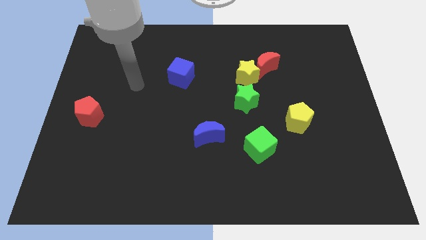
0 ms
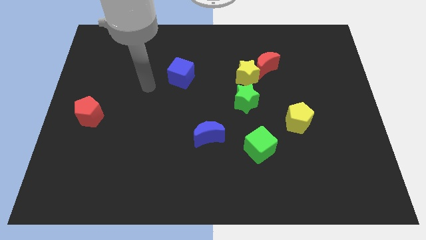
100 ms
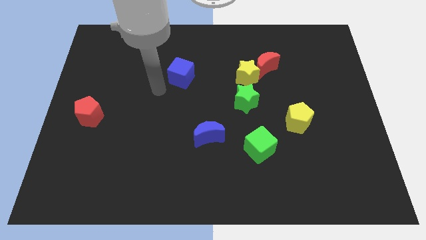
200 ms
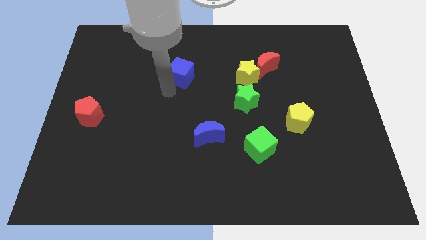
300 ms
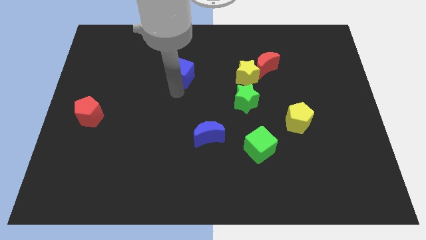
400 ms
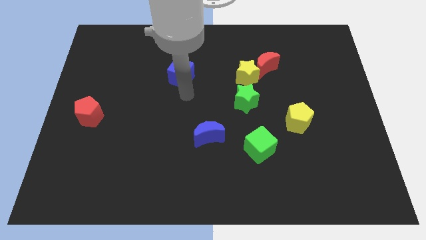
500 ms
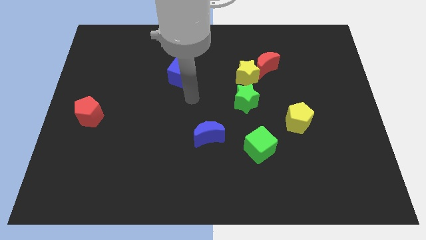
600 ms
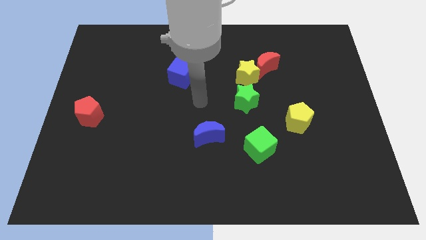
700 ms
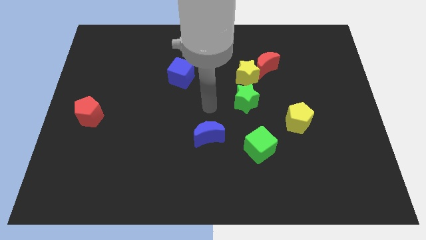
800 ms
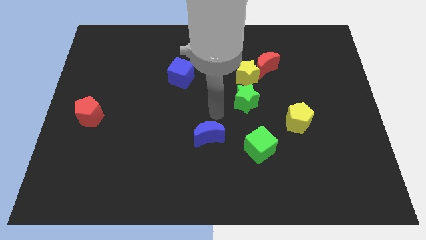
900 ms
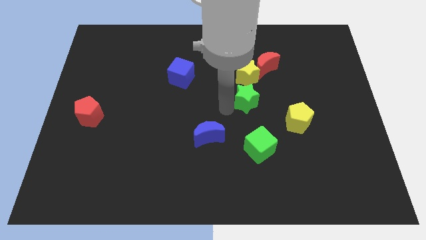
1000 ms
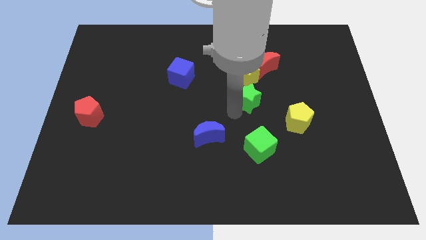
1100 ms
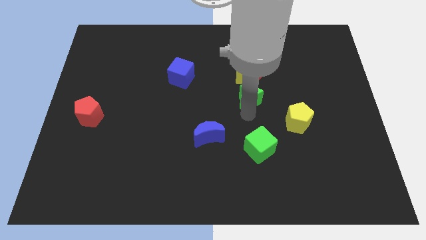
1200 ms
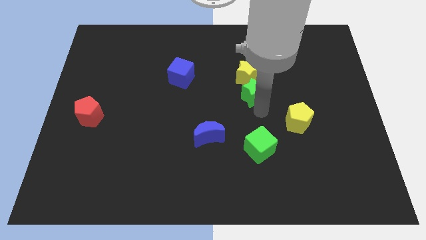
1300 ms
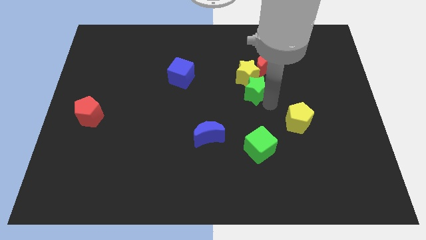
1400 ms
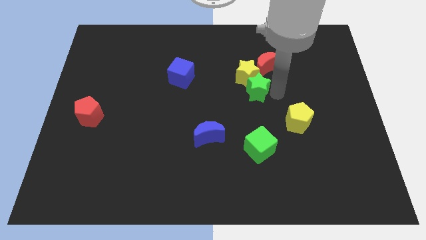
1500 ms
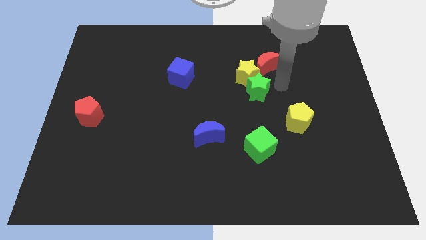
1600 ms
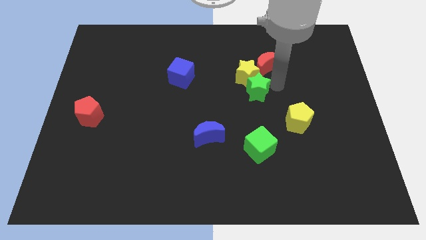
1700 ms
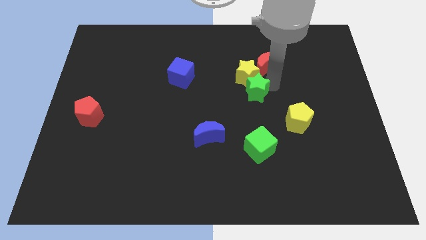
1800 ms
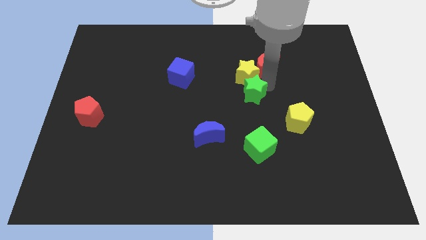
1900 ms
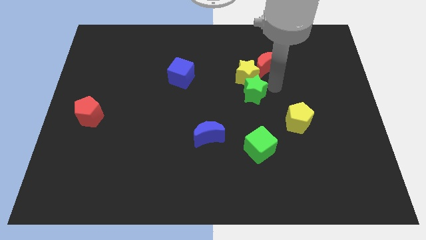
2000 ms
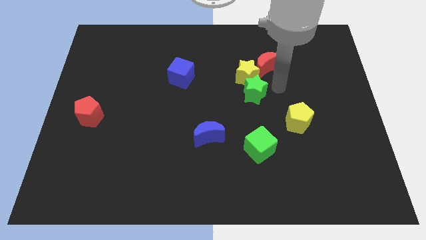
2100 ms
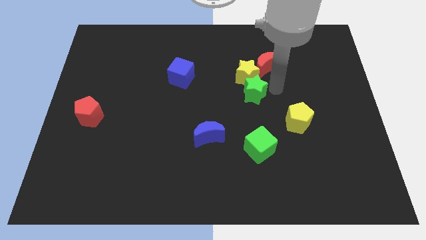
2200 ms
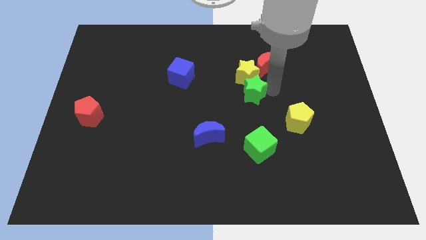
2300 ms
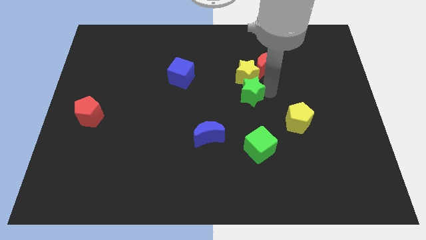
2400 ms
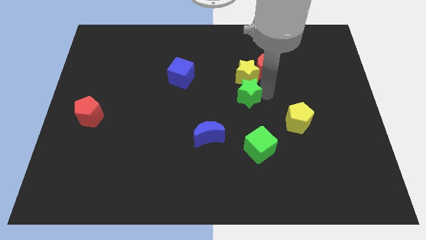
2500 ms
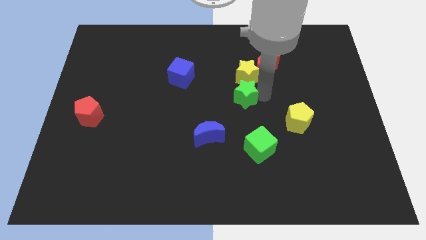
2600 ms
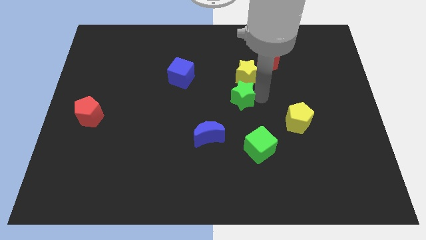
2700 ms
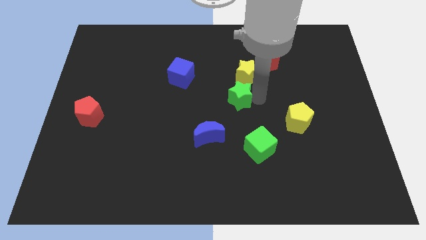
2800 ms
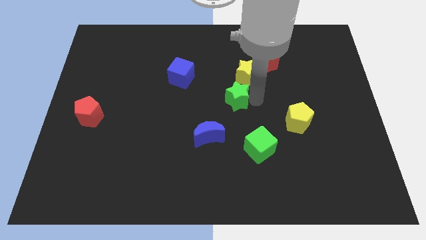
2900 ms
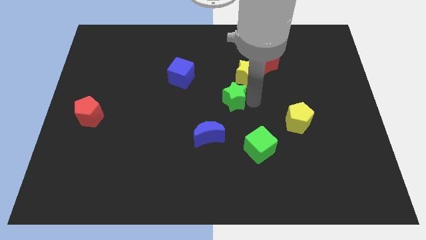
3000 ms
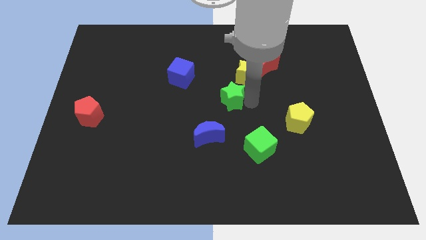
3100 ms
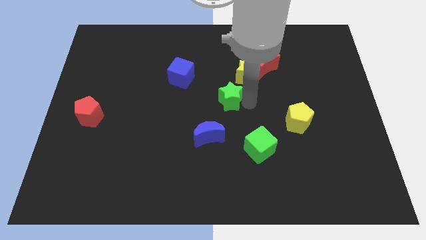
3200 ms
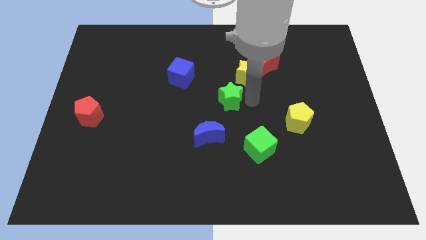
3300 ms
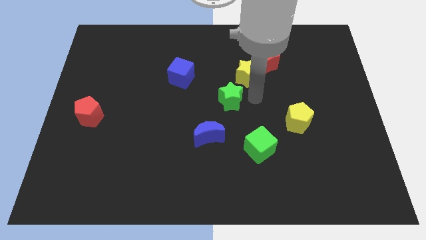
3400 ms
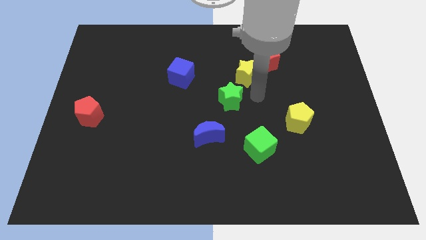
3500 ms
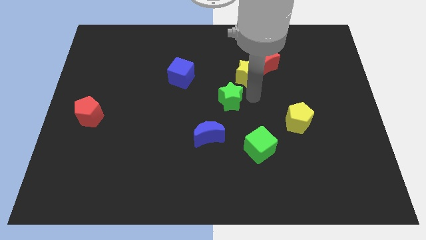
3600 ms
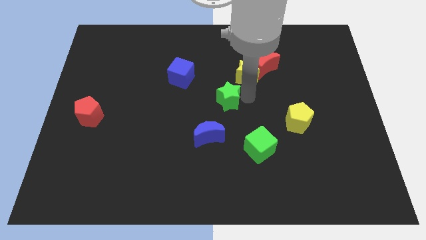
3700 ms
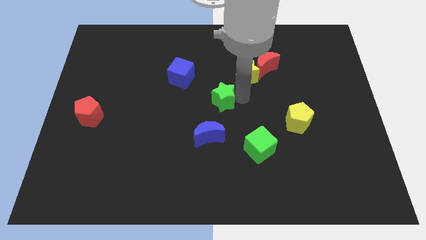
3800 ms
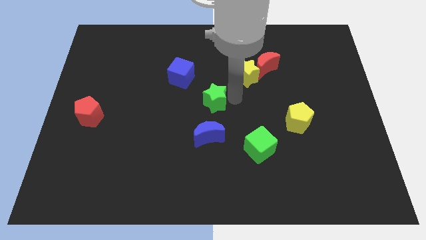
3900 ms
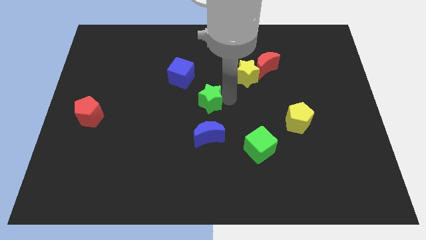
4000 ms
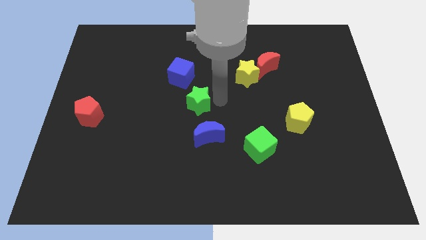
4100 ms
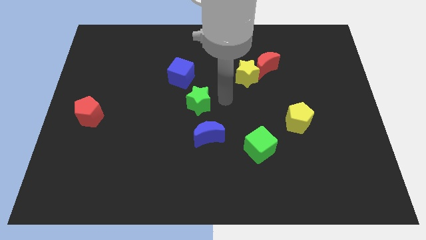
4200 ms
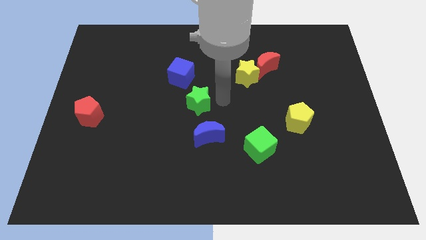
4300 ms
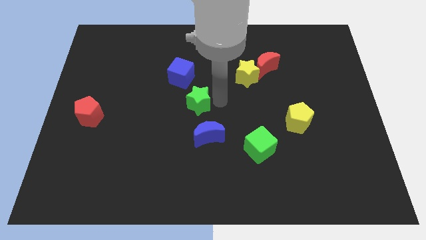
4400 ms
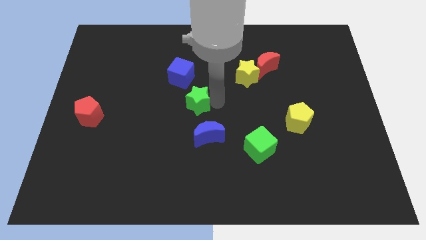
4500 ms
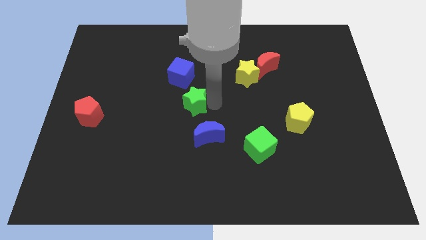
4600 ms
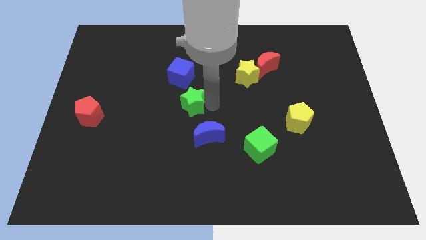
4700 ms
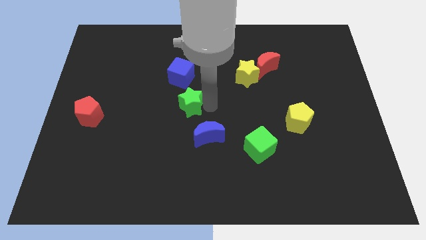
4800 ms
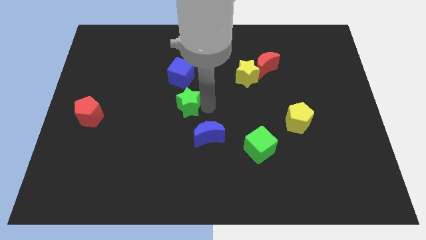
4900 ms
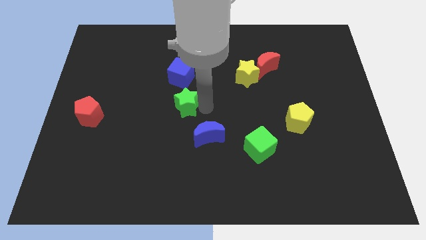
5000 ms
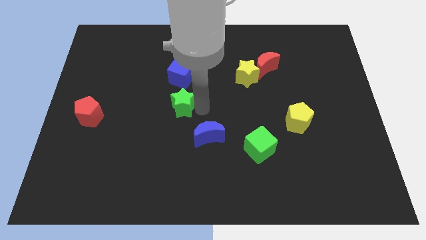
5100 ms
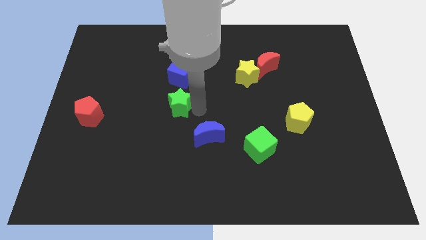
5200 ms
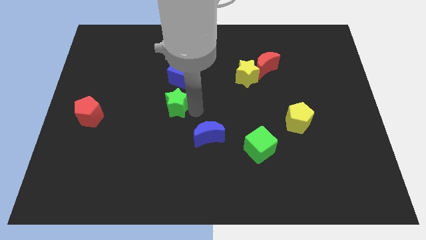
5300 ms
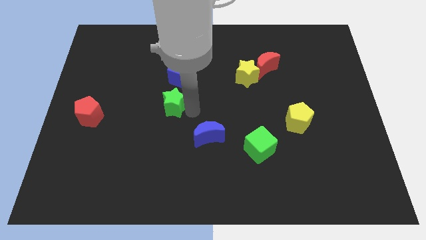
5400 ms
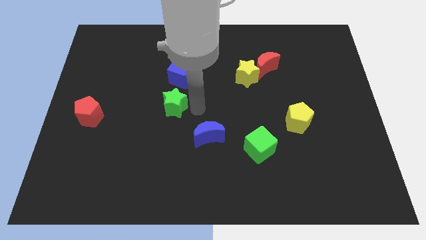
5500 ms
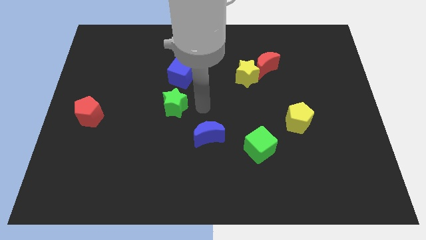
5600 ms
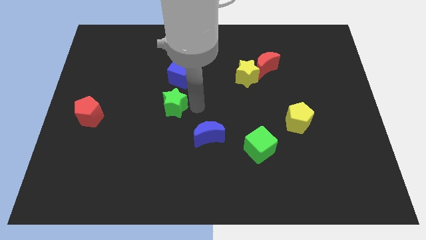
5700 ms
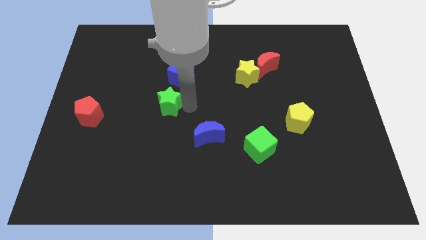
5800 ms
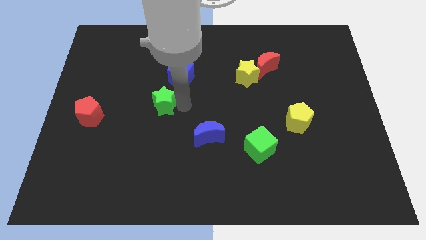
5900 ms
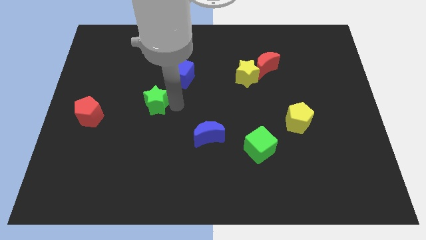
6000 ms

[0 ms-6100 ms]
move the green star left

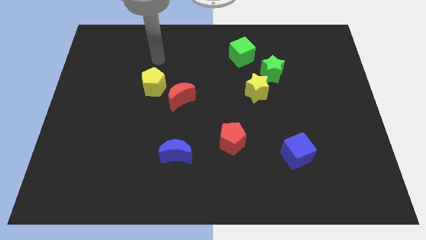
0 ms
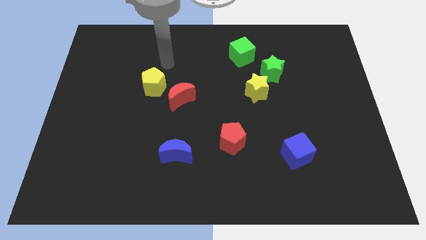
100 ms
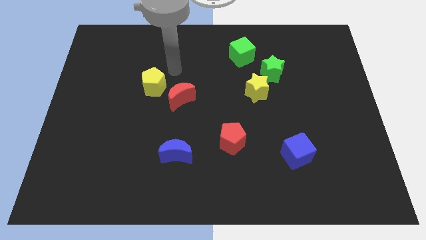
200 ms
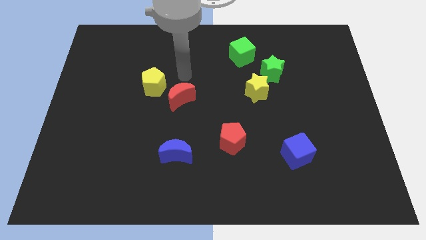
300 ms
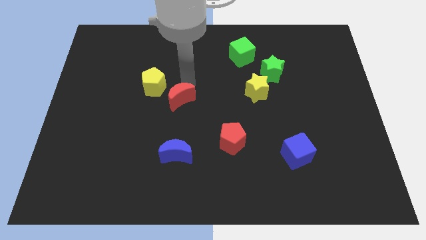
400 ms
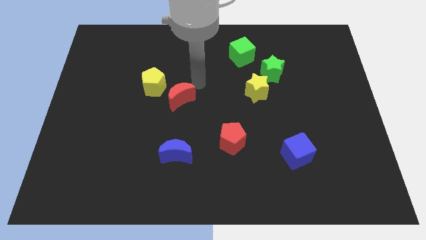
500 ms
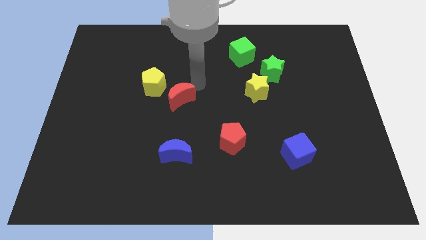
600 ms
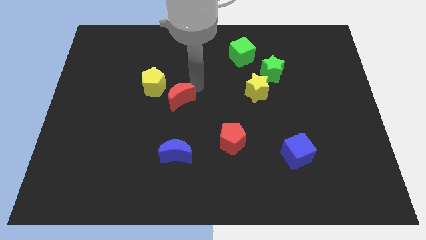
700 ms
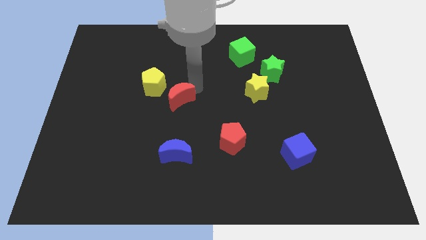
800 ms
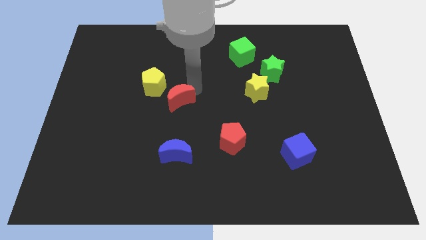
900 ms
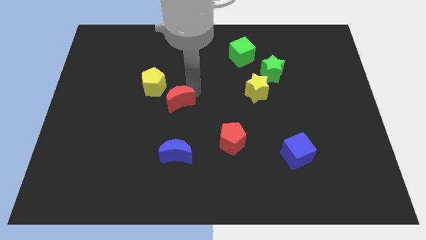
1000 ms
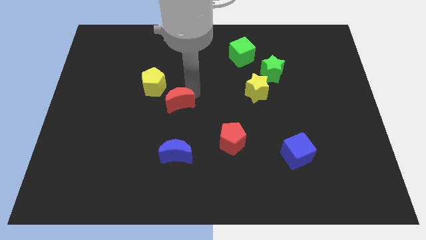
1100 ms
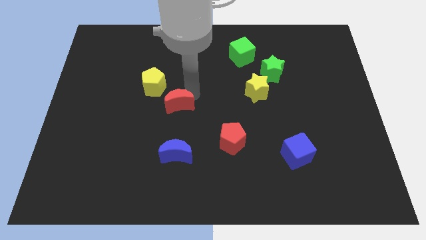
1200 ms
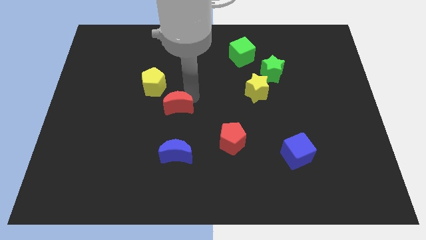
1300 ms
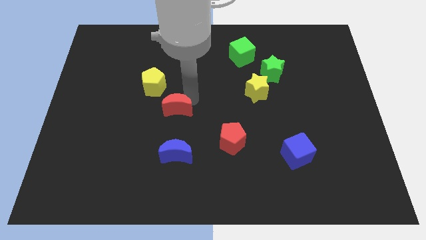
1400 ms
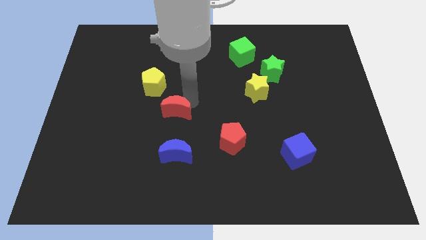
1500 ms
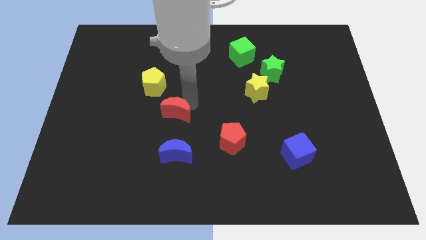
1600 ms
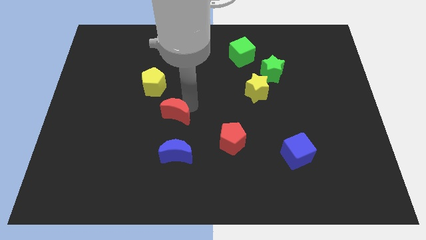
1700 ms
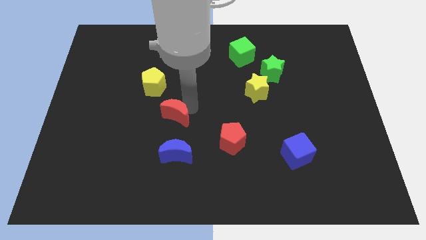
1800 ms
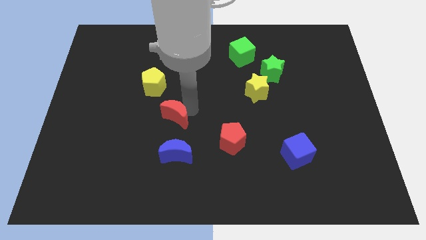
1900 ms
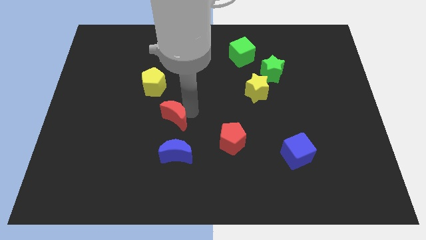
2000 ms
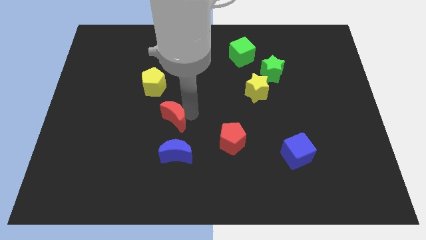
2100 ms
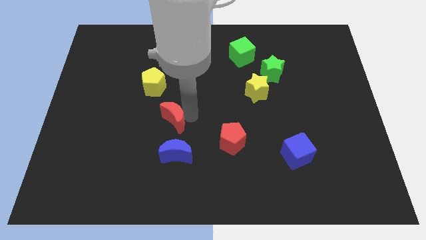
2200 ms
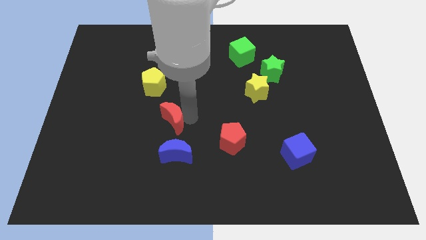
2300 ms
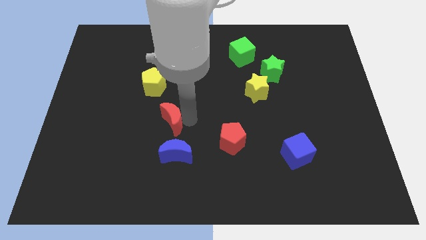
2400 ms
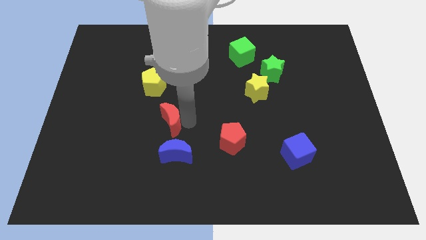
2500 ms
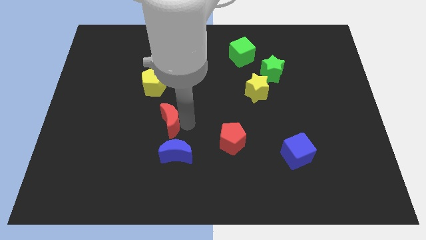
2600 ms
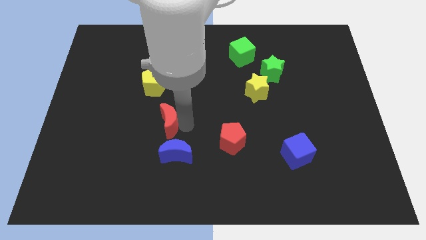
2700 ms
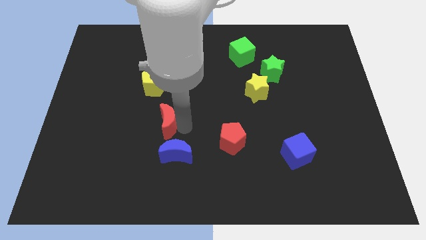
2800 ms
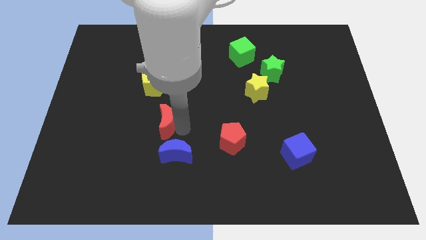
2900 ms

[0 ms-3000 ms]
slightly slide the red moon downwards and to the left
